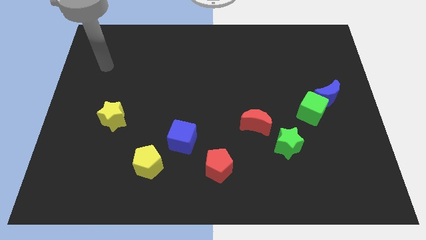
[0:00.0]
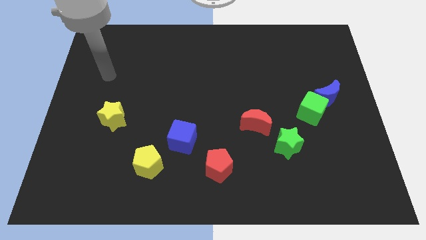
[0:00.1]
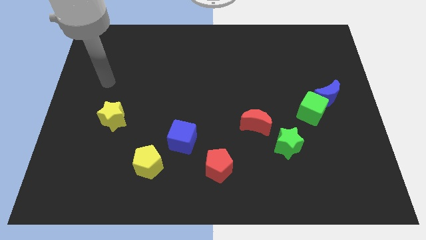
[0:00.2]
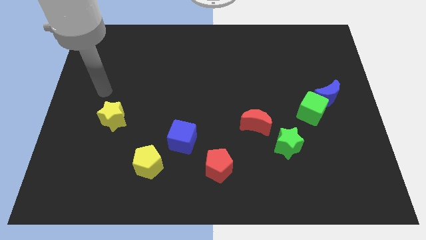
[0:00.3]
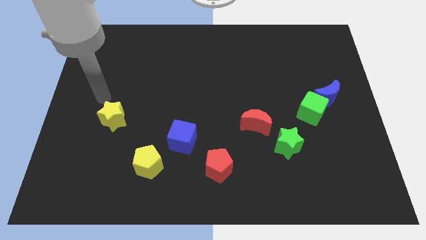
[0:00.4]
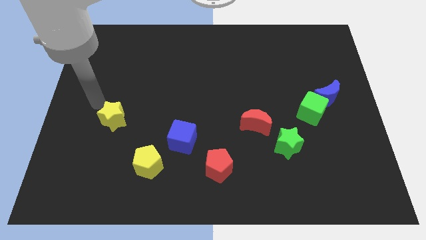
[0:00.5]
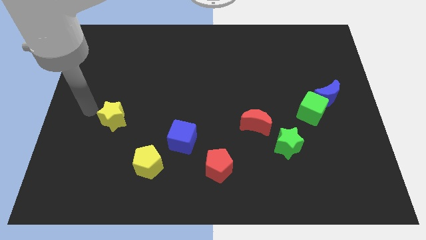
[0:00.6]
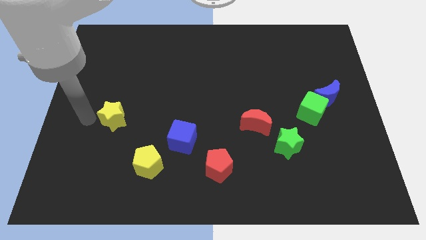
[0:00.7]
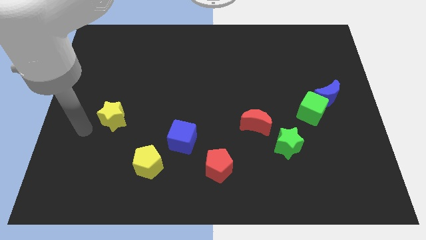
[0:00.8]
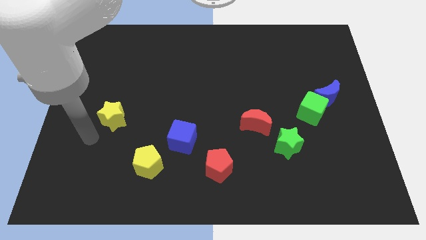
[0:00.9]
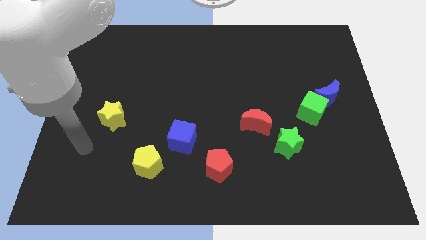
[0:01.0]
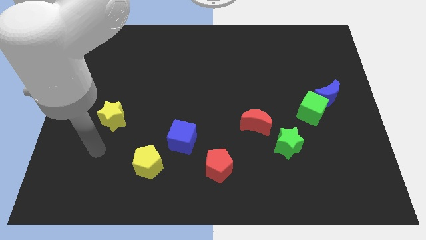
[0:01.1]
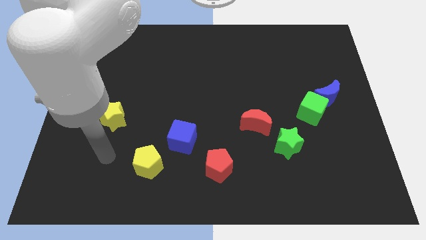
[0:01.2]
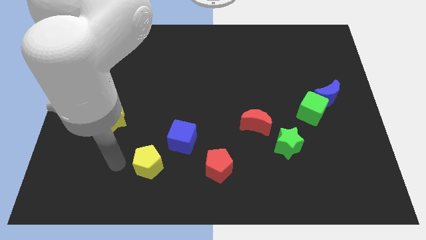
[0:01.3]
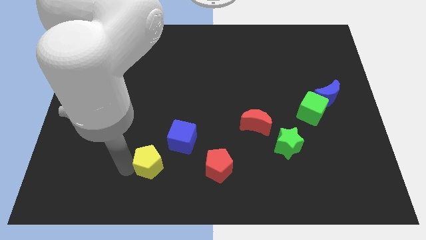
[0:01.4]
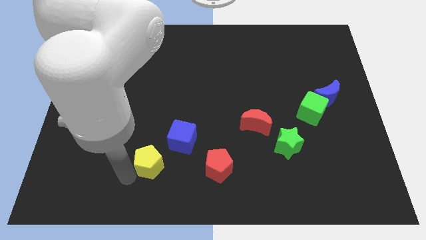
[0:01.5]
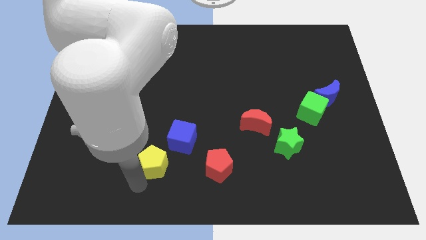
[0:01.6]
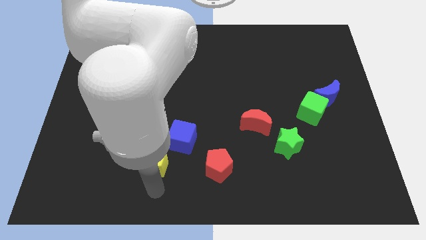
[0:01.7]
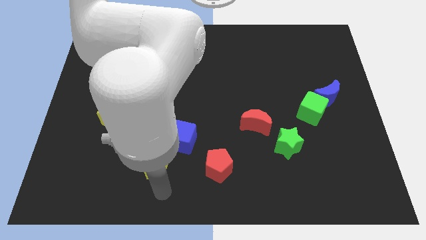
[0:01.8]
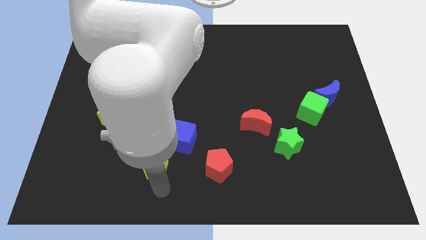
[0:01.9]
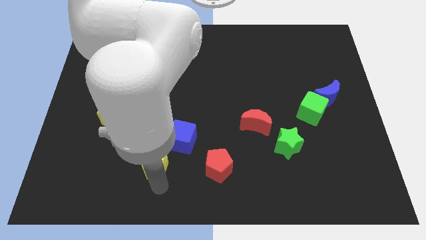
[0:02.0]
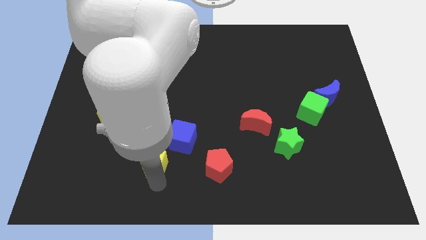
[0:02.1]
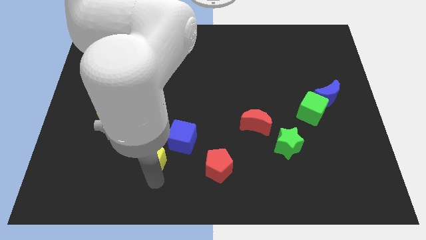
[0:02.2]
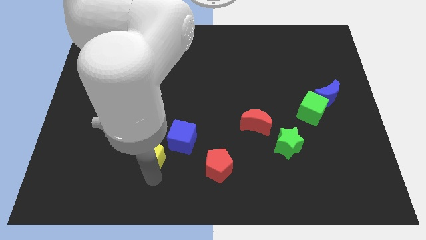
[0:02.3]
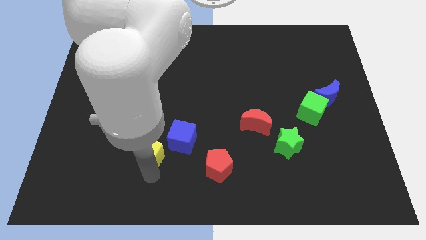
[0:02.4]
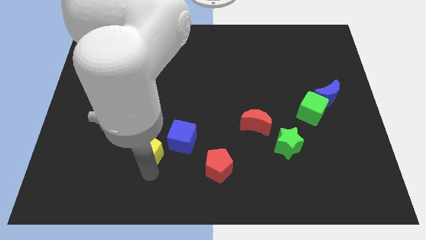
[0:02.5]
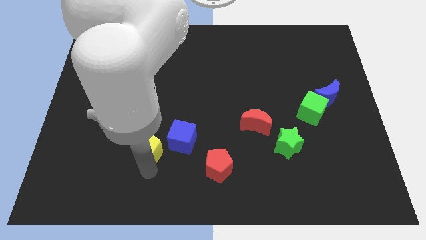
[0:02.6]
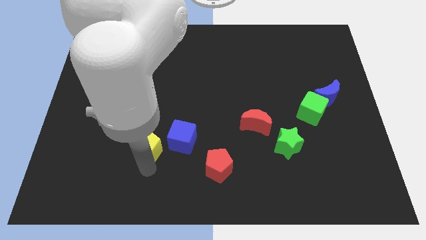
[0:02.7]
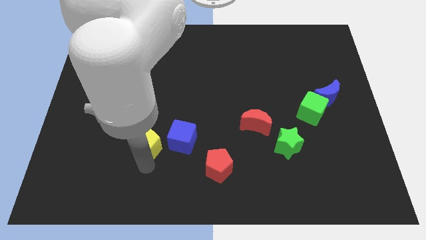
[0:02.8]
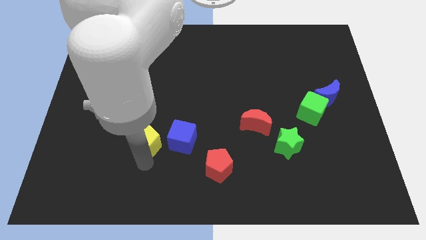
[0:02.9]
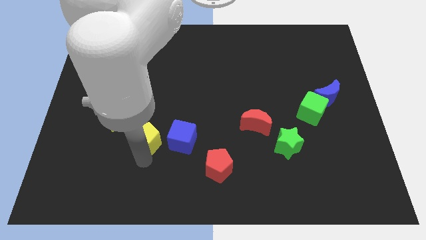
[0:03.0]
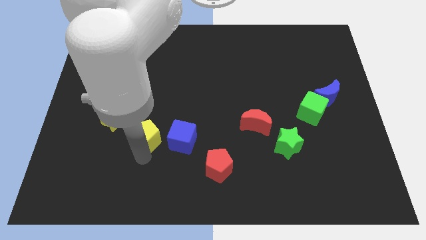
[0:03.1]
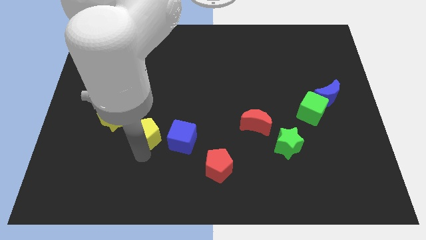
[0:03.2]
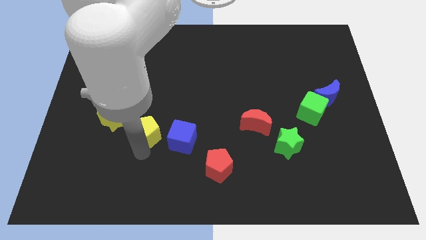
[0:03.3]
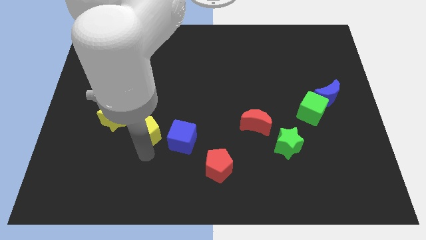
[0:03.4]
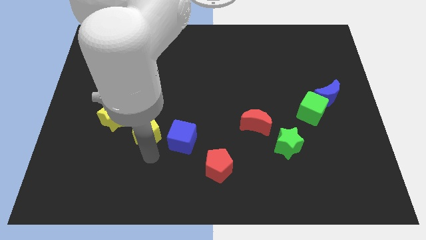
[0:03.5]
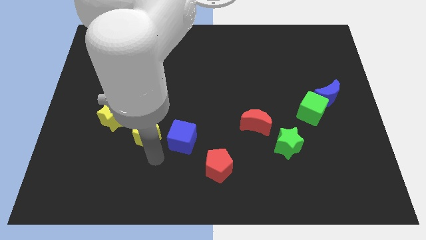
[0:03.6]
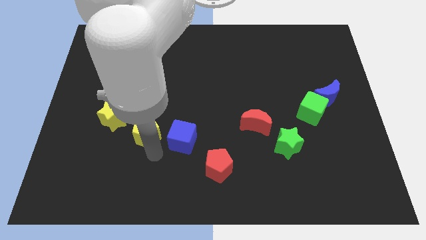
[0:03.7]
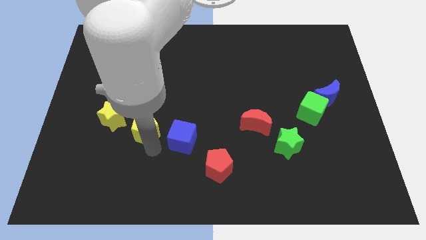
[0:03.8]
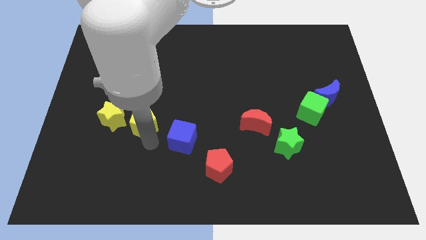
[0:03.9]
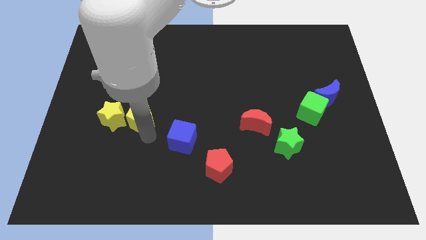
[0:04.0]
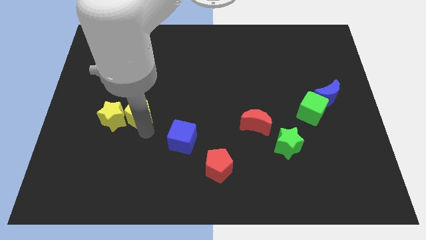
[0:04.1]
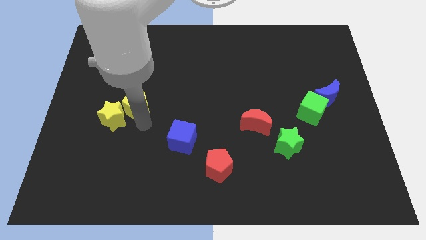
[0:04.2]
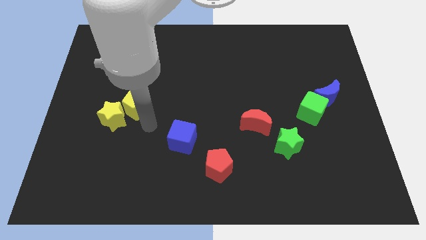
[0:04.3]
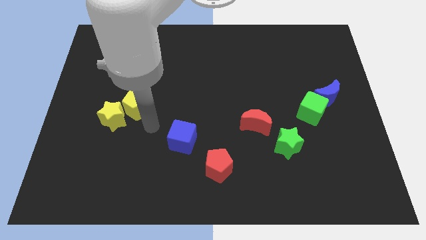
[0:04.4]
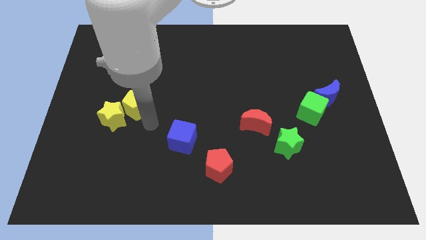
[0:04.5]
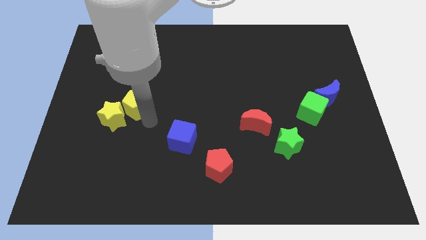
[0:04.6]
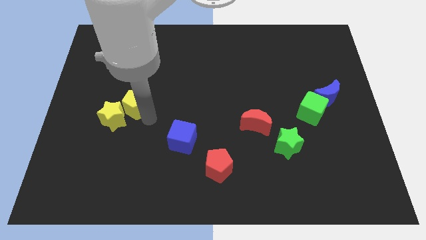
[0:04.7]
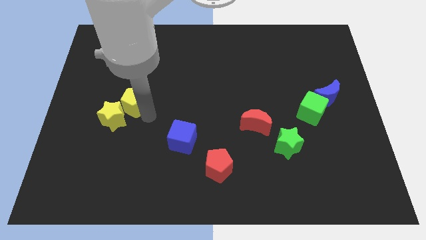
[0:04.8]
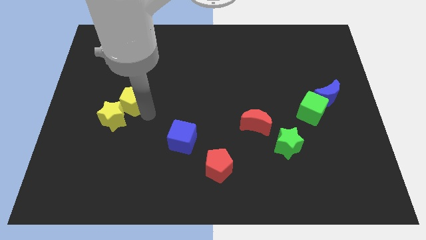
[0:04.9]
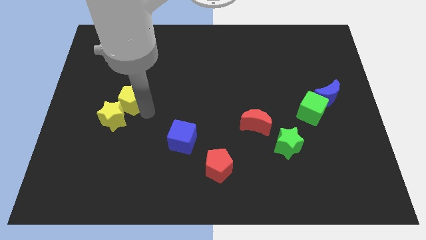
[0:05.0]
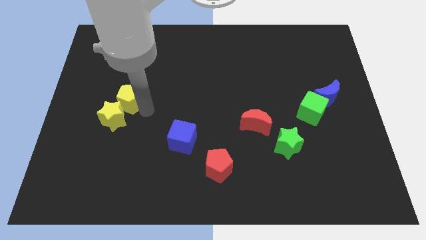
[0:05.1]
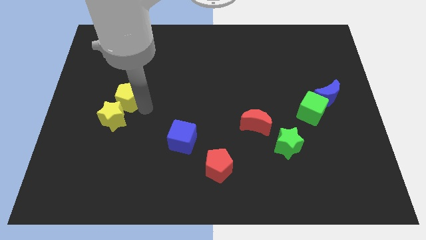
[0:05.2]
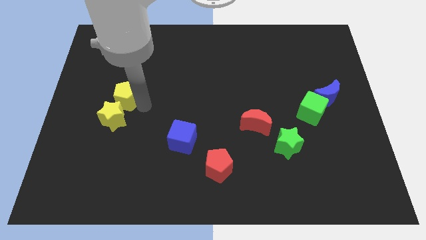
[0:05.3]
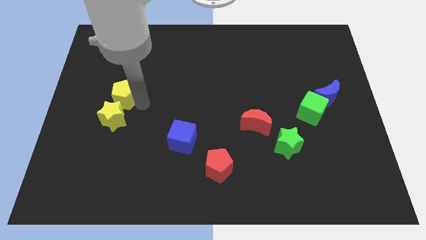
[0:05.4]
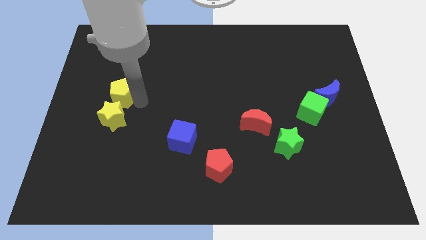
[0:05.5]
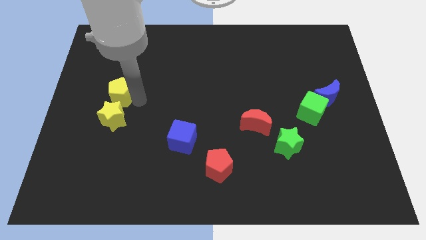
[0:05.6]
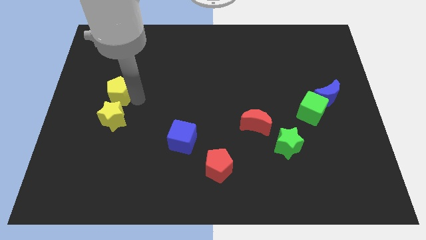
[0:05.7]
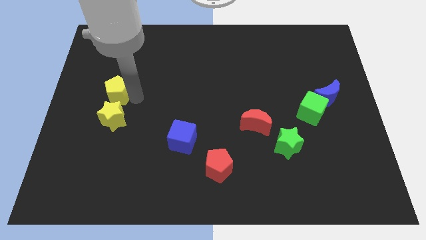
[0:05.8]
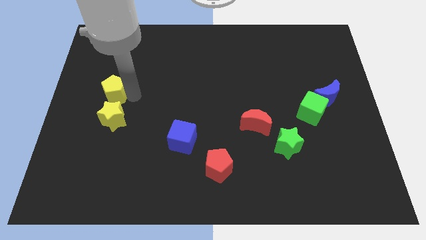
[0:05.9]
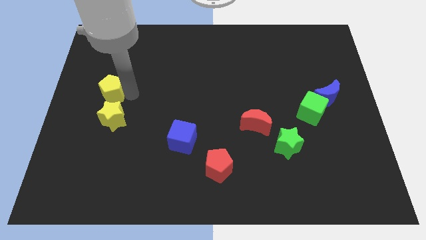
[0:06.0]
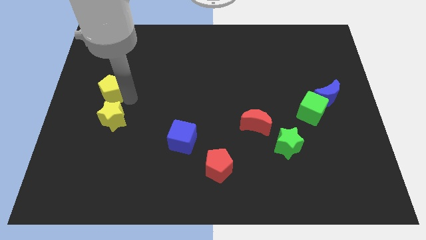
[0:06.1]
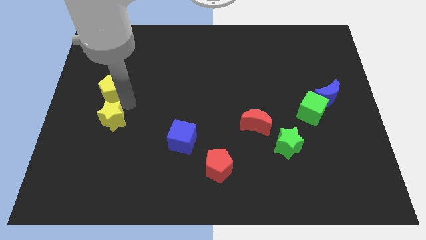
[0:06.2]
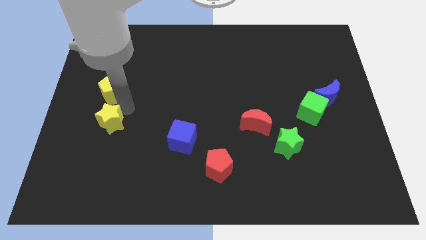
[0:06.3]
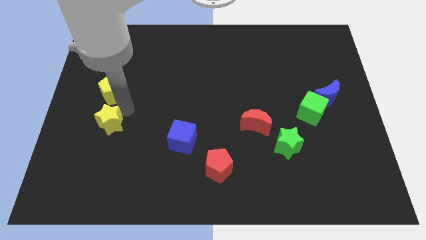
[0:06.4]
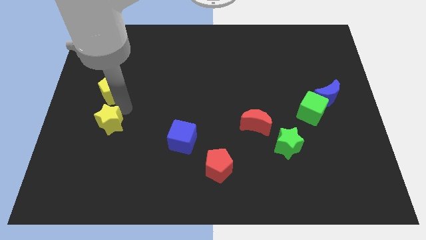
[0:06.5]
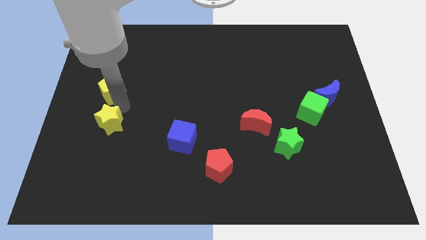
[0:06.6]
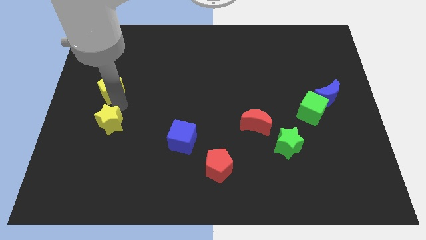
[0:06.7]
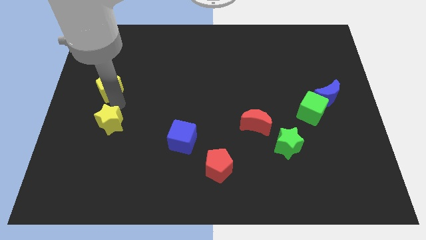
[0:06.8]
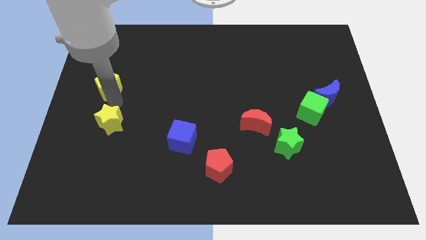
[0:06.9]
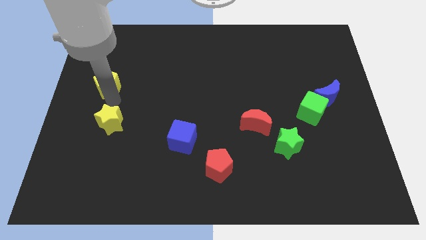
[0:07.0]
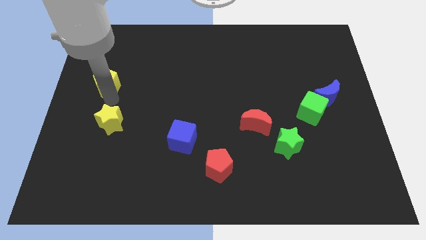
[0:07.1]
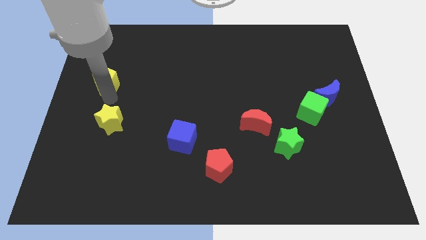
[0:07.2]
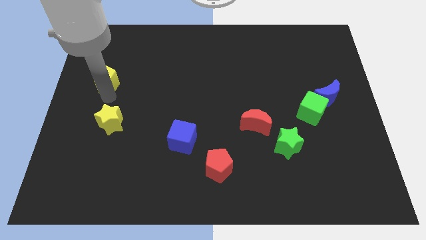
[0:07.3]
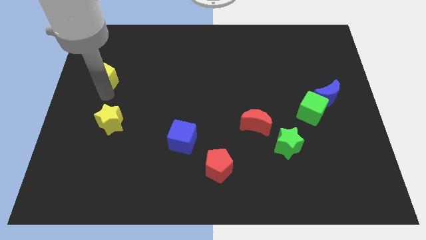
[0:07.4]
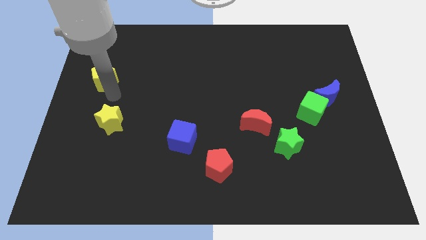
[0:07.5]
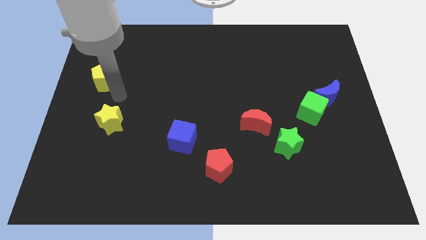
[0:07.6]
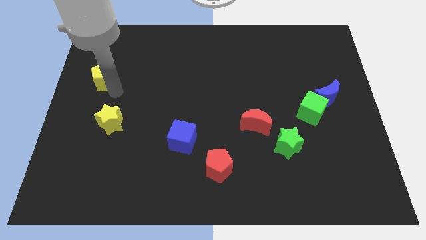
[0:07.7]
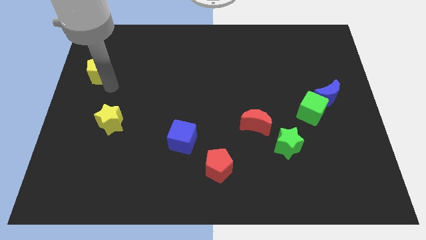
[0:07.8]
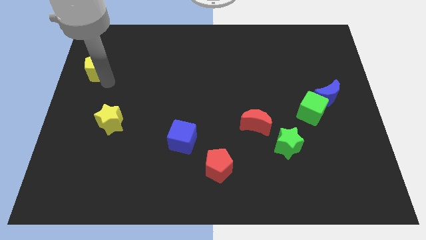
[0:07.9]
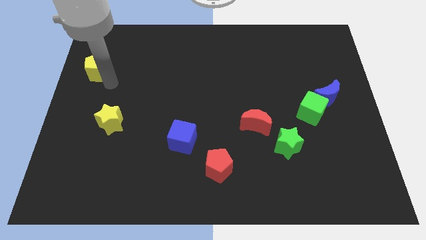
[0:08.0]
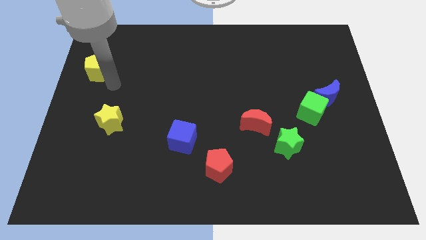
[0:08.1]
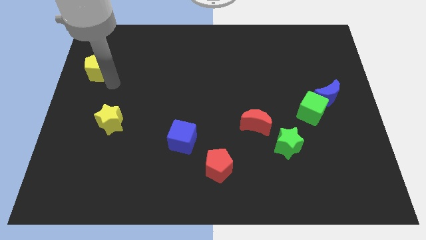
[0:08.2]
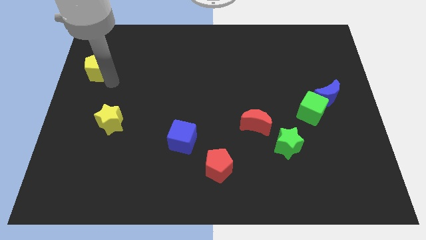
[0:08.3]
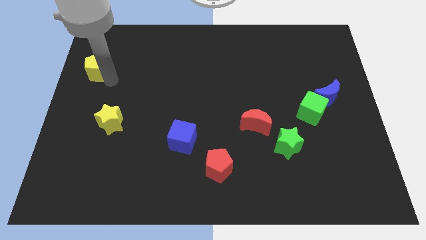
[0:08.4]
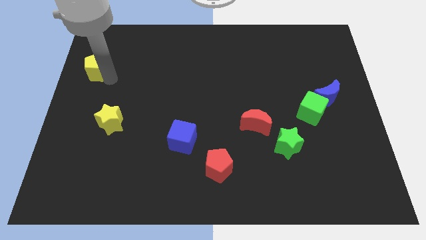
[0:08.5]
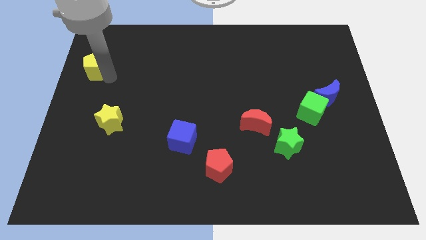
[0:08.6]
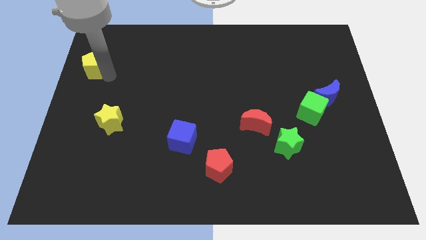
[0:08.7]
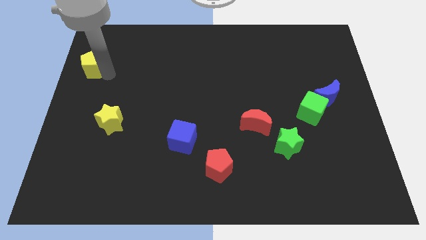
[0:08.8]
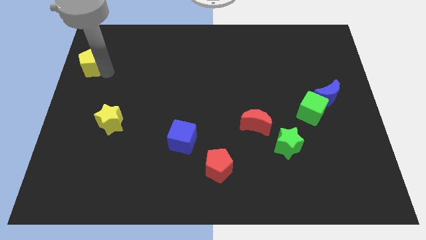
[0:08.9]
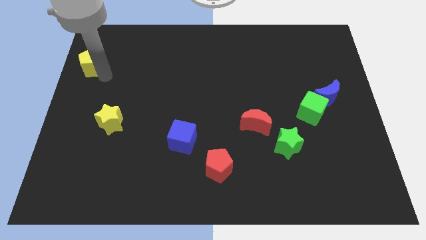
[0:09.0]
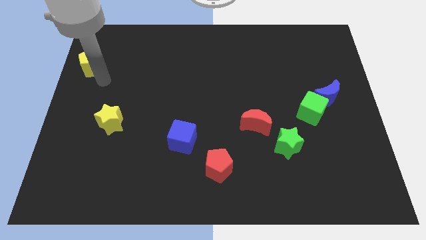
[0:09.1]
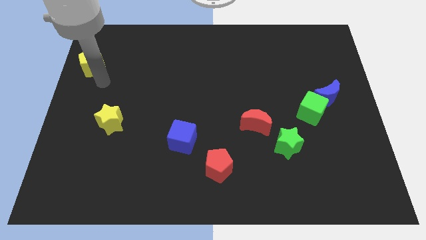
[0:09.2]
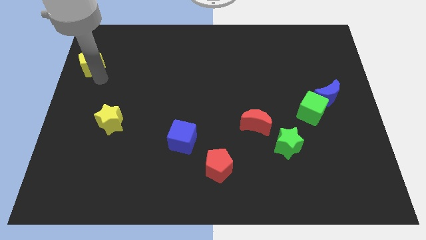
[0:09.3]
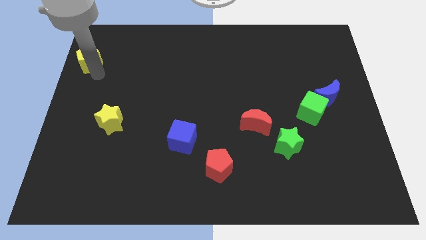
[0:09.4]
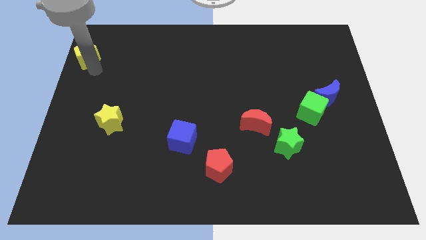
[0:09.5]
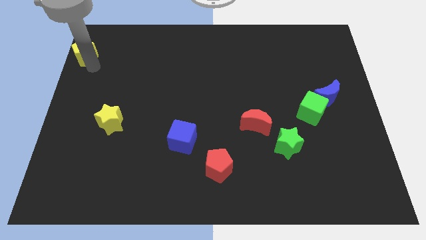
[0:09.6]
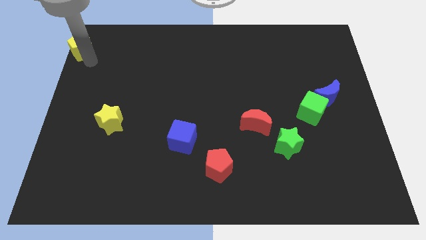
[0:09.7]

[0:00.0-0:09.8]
push the yellow pentagon to the top left
